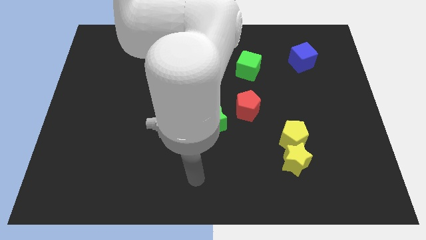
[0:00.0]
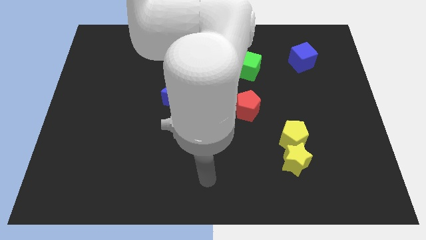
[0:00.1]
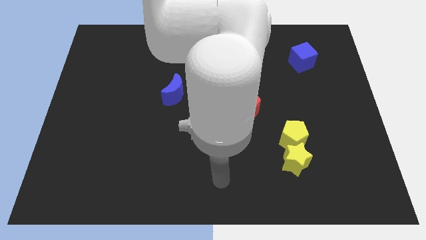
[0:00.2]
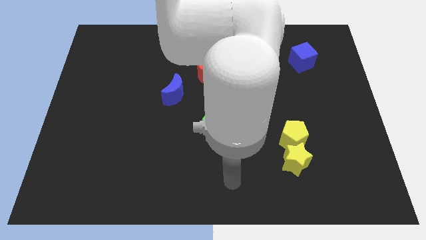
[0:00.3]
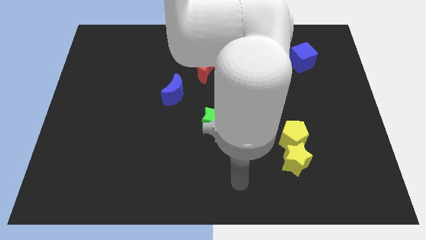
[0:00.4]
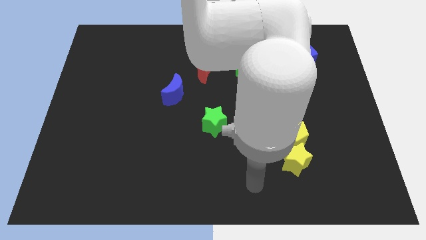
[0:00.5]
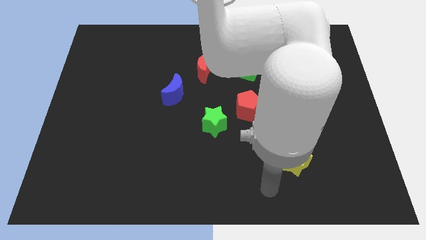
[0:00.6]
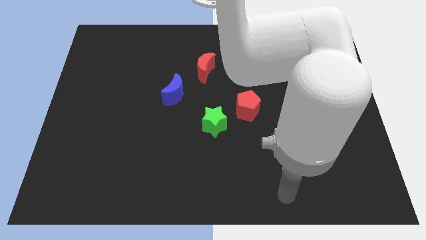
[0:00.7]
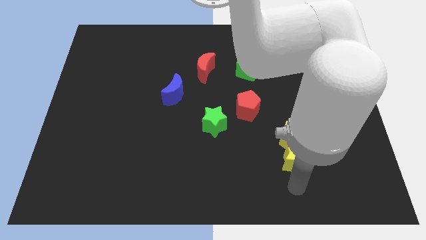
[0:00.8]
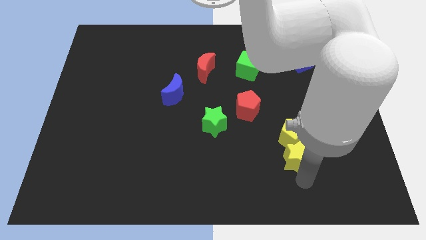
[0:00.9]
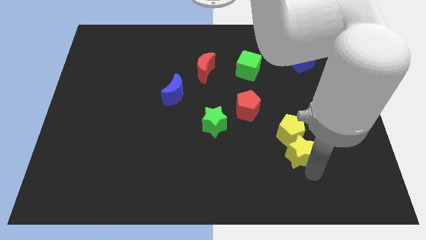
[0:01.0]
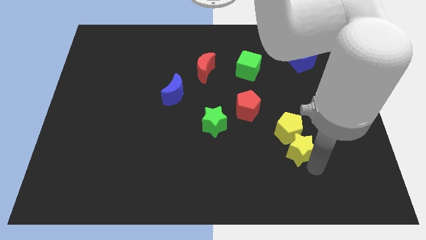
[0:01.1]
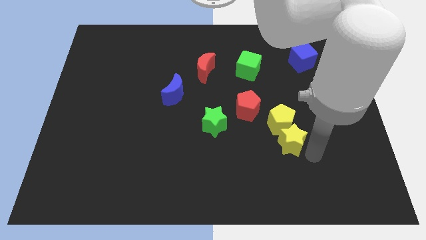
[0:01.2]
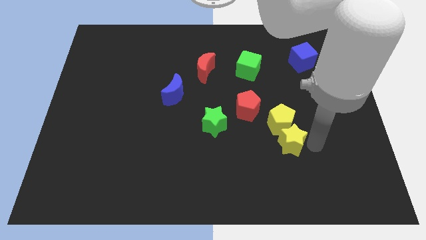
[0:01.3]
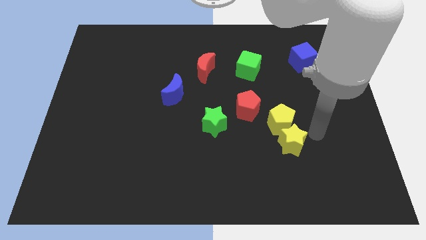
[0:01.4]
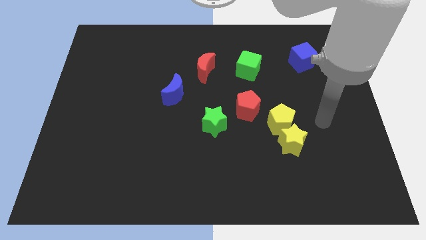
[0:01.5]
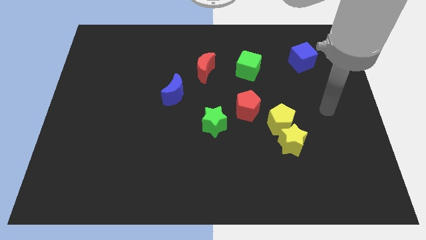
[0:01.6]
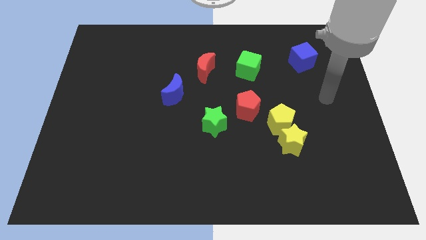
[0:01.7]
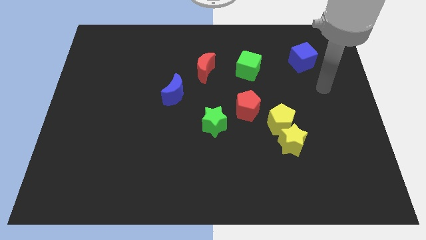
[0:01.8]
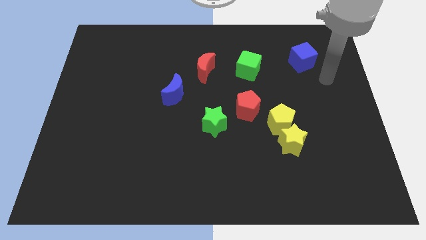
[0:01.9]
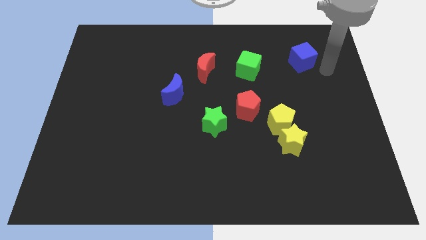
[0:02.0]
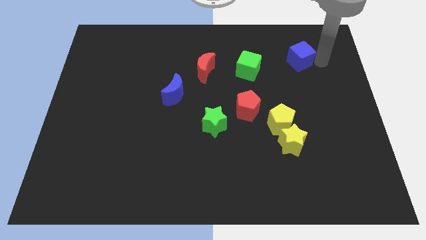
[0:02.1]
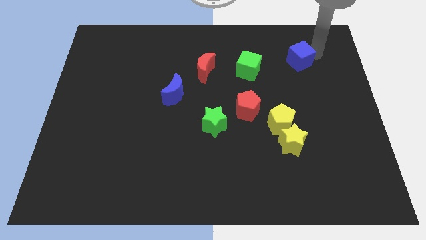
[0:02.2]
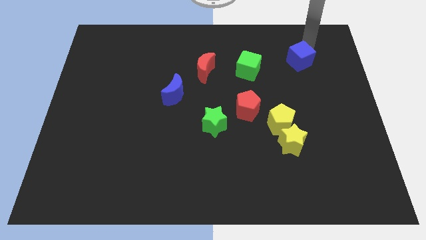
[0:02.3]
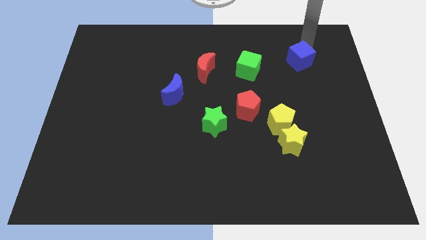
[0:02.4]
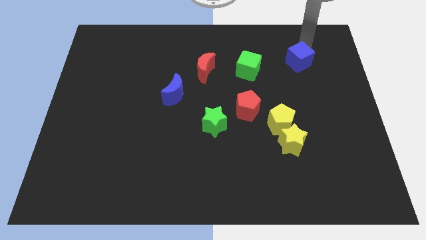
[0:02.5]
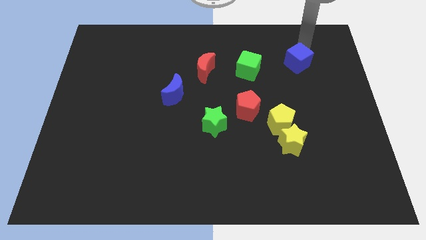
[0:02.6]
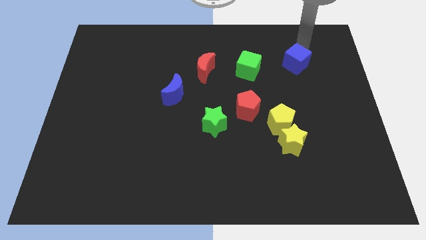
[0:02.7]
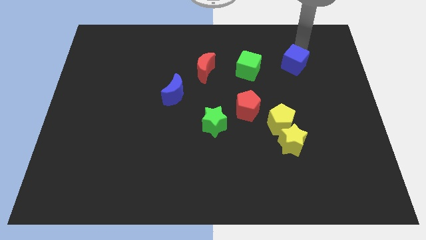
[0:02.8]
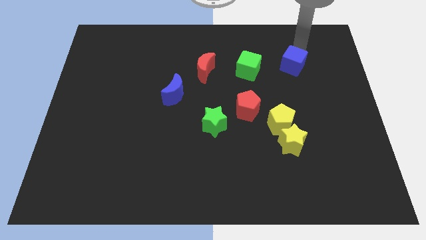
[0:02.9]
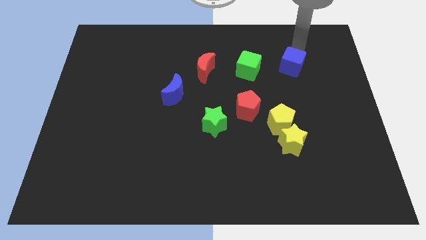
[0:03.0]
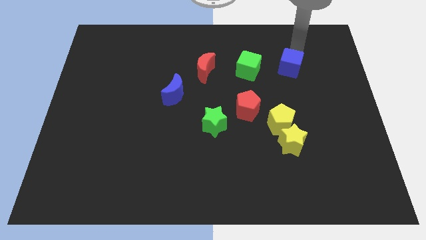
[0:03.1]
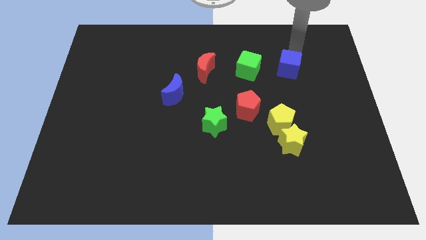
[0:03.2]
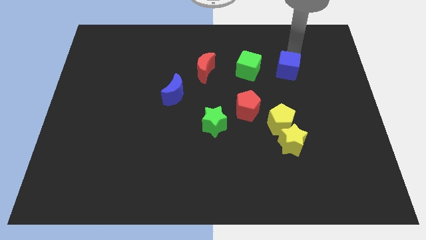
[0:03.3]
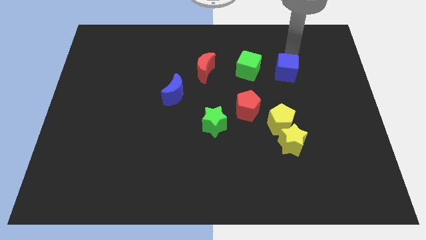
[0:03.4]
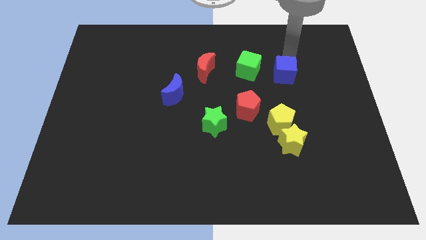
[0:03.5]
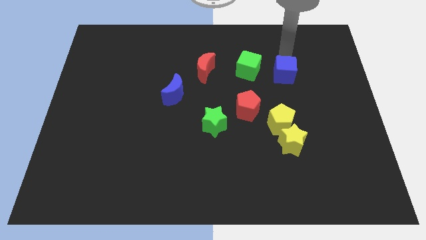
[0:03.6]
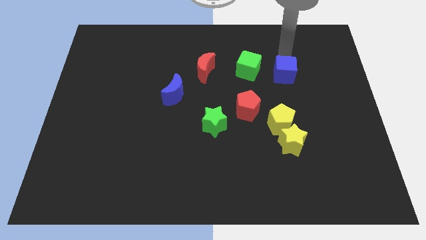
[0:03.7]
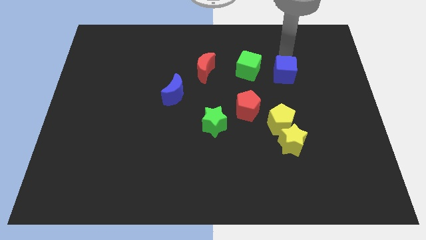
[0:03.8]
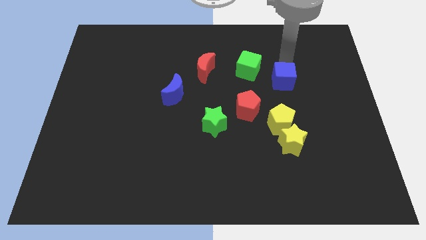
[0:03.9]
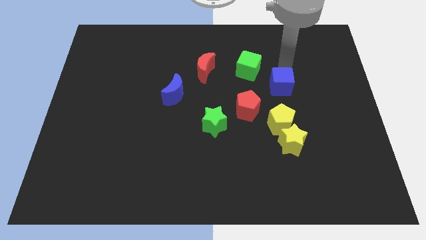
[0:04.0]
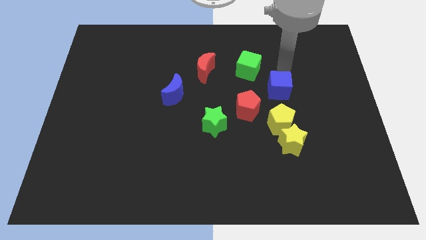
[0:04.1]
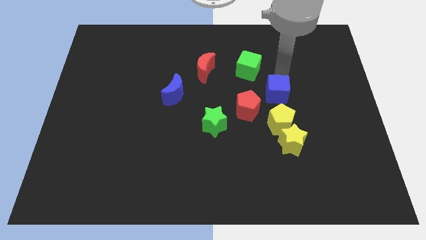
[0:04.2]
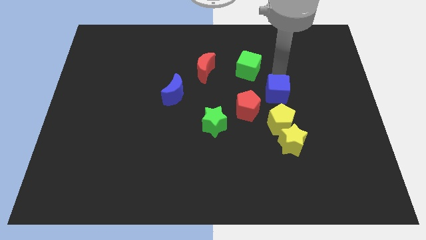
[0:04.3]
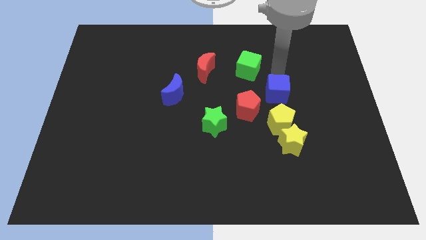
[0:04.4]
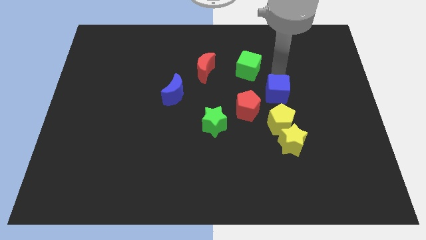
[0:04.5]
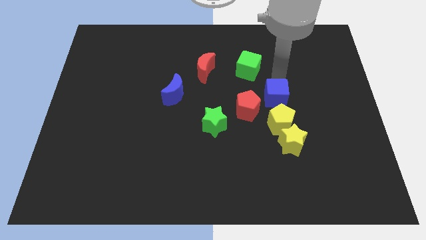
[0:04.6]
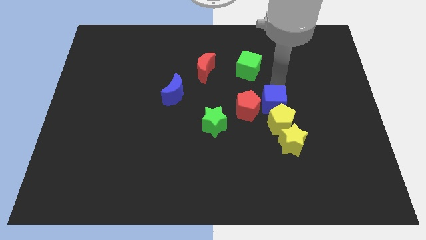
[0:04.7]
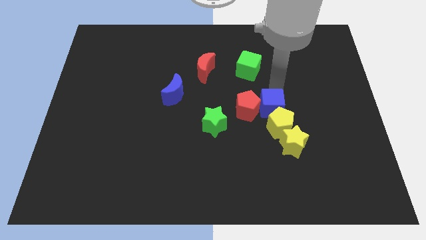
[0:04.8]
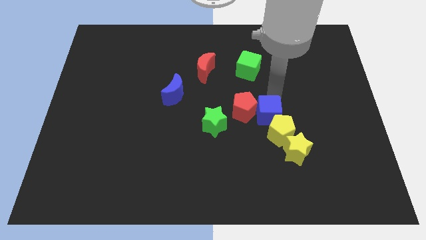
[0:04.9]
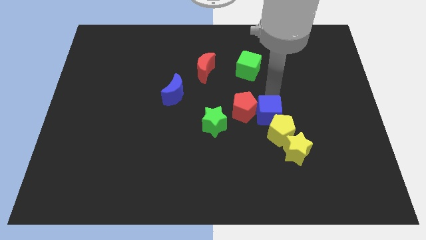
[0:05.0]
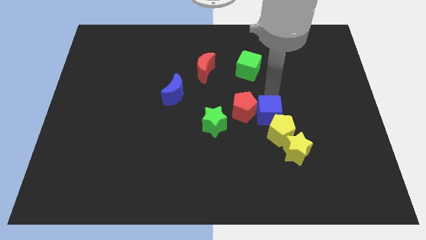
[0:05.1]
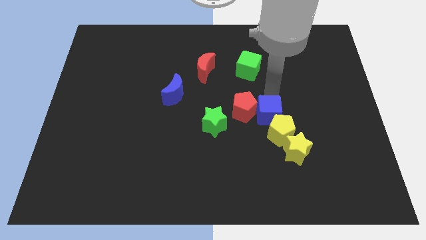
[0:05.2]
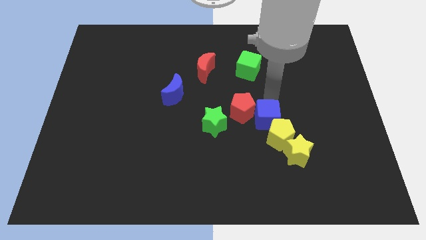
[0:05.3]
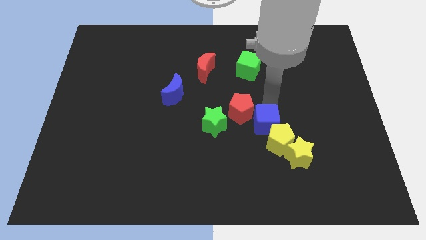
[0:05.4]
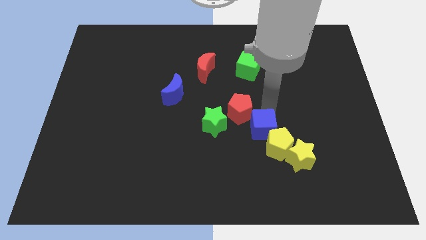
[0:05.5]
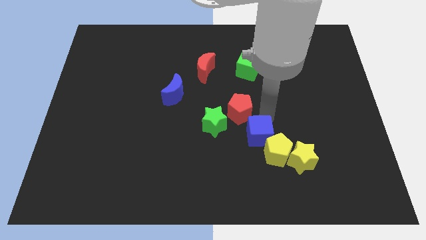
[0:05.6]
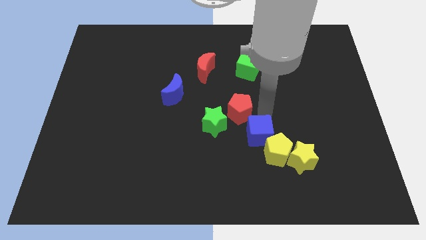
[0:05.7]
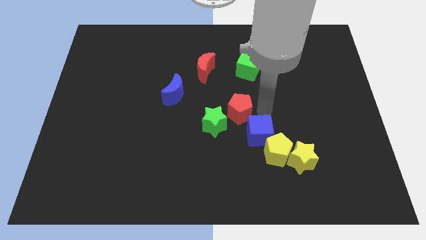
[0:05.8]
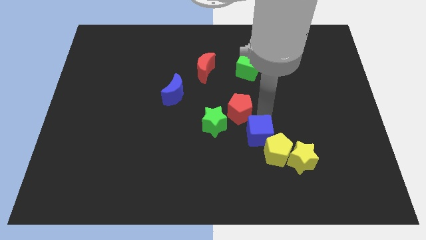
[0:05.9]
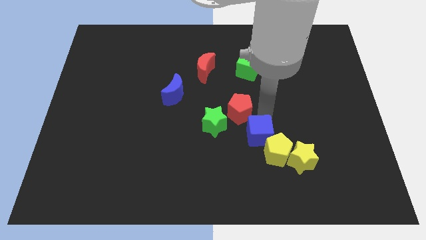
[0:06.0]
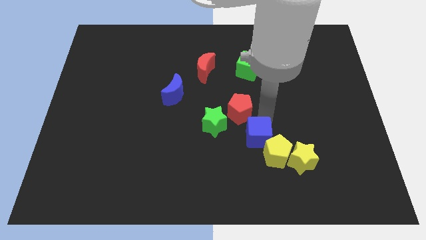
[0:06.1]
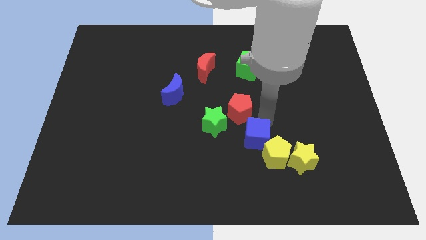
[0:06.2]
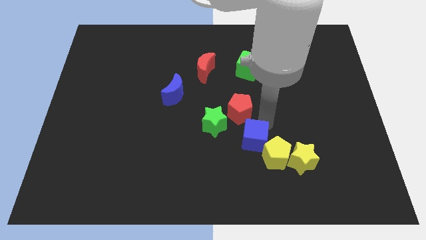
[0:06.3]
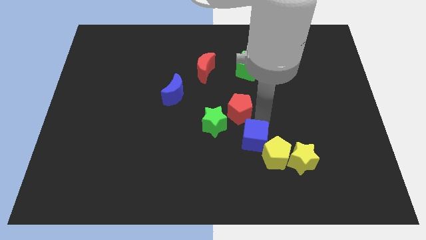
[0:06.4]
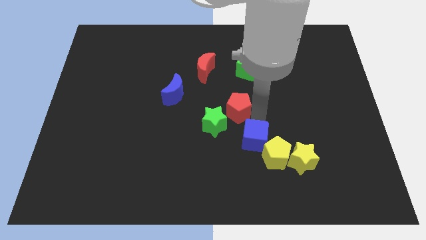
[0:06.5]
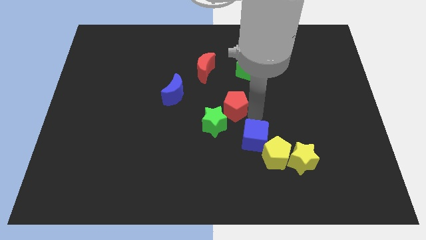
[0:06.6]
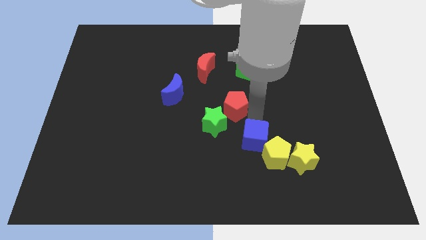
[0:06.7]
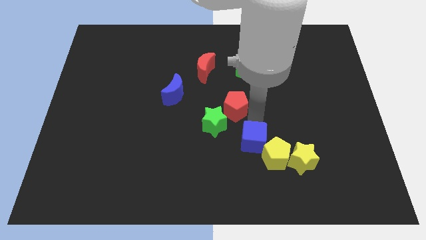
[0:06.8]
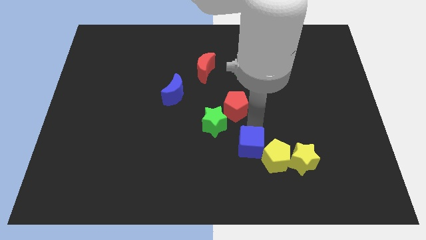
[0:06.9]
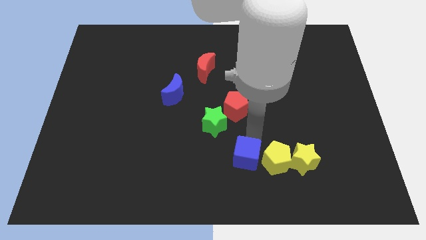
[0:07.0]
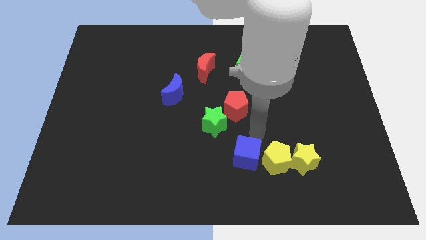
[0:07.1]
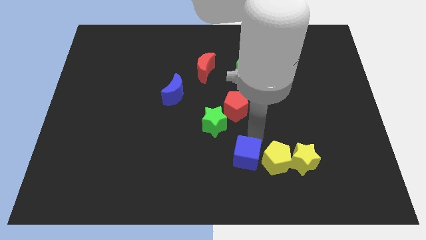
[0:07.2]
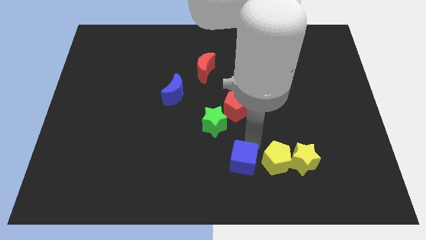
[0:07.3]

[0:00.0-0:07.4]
push the blue cube to the bottom
